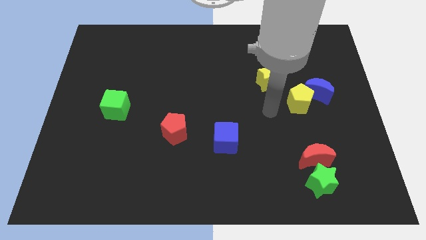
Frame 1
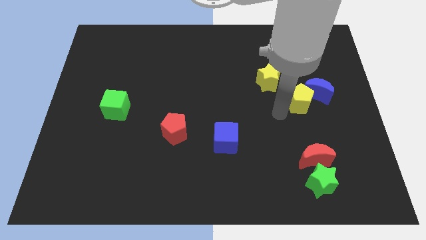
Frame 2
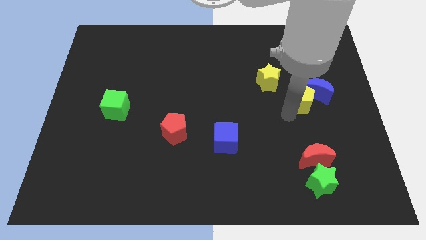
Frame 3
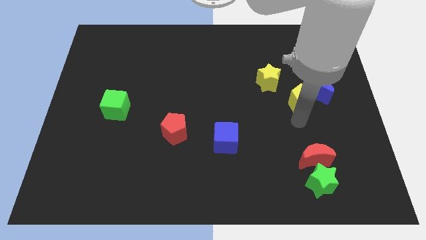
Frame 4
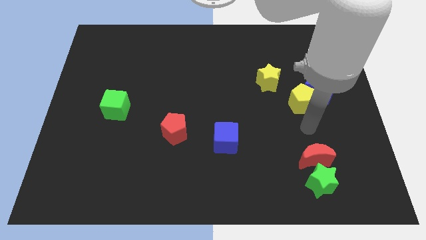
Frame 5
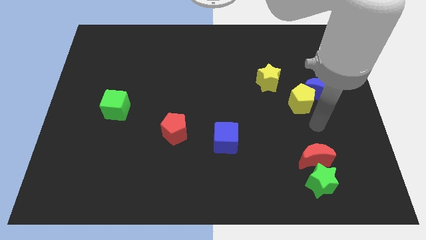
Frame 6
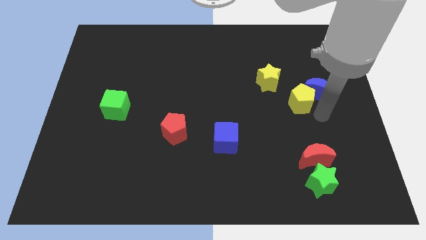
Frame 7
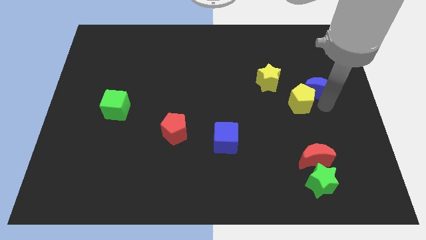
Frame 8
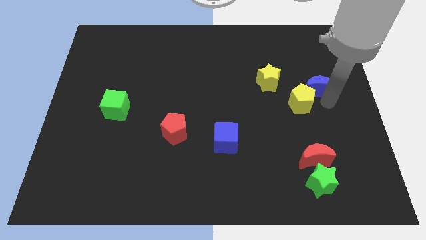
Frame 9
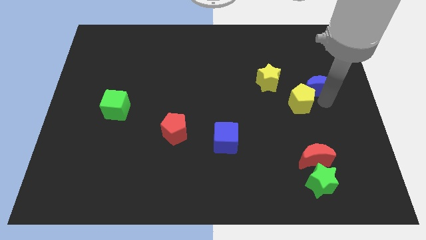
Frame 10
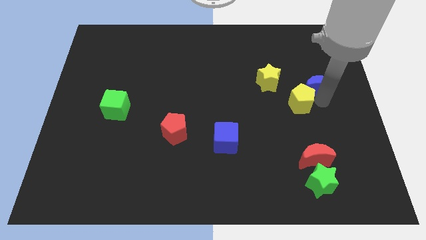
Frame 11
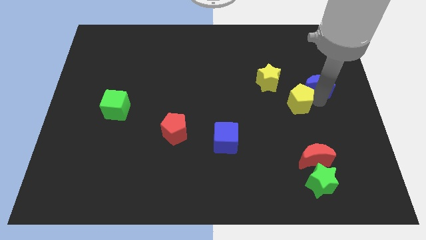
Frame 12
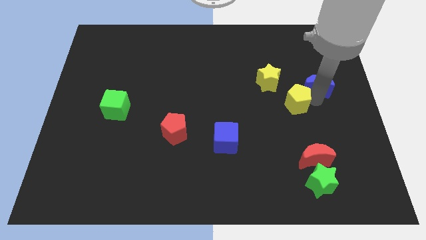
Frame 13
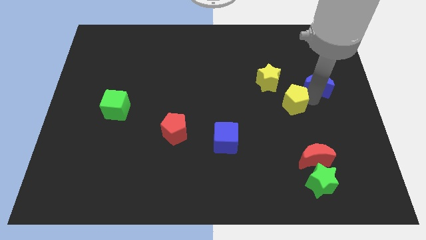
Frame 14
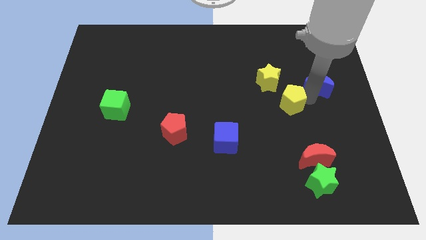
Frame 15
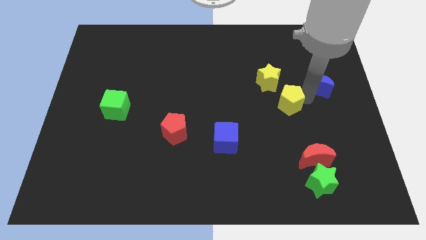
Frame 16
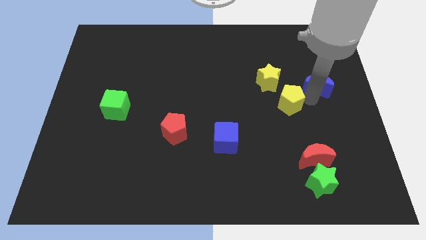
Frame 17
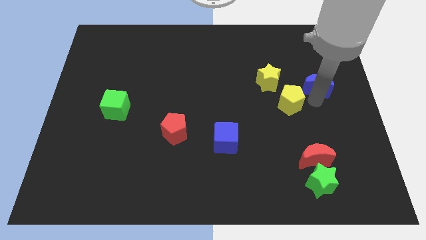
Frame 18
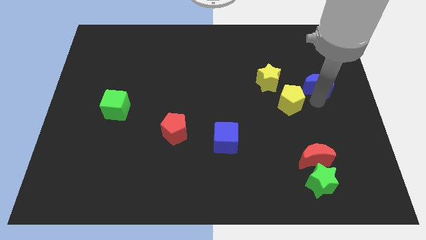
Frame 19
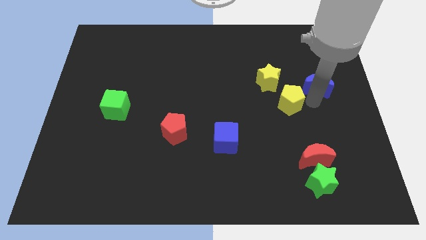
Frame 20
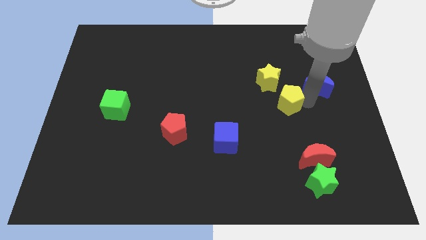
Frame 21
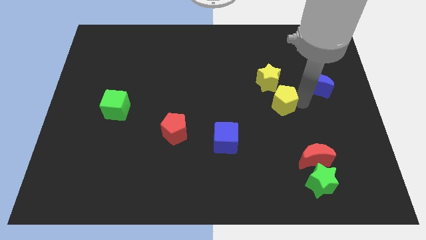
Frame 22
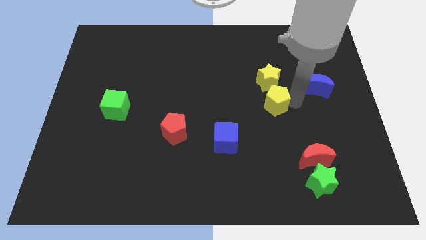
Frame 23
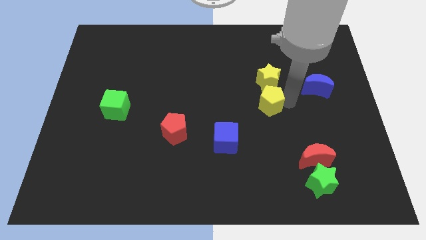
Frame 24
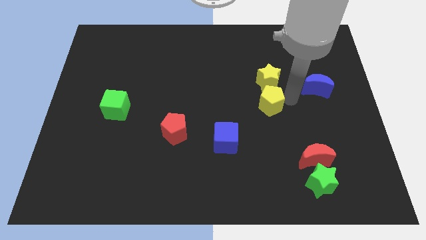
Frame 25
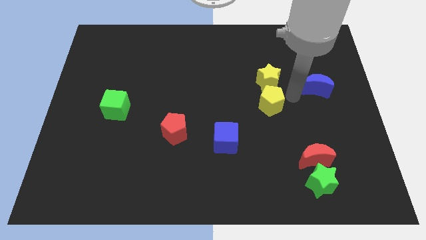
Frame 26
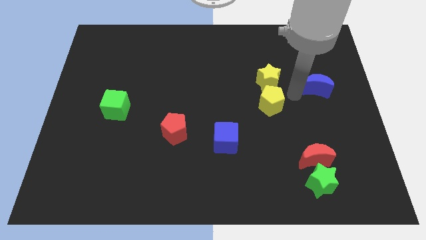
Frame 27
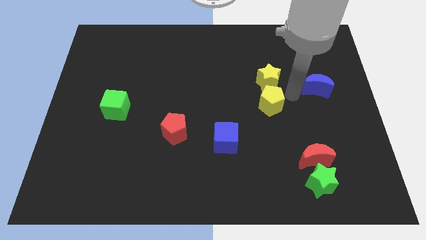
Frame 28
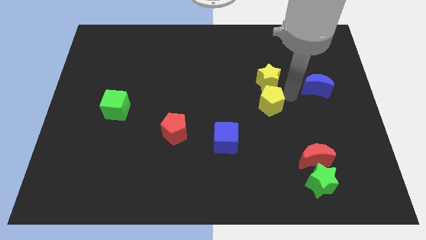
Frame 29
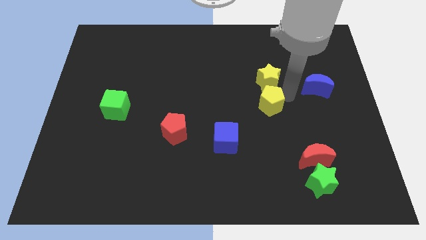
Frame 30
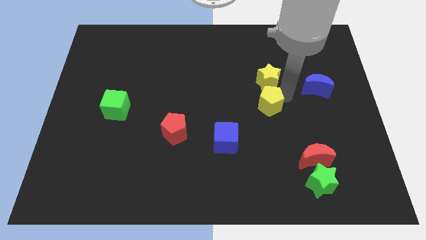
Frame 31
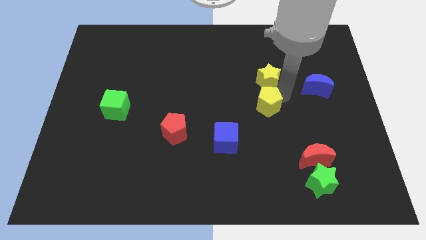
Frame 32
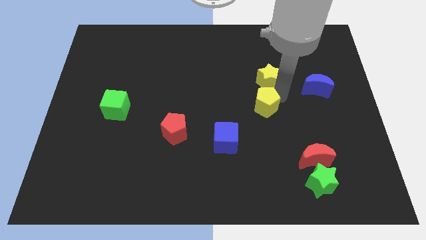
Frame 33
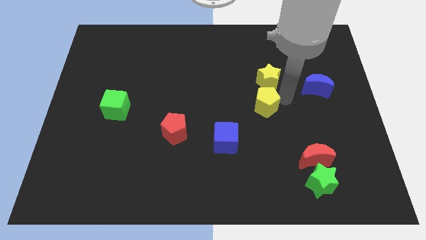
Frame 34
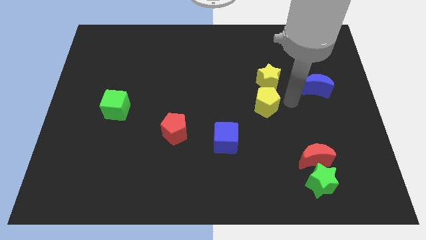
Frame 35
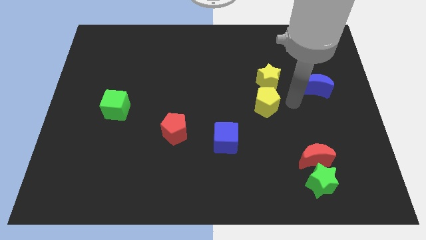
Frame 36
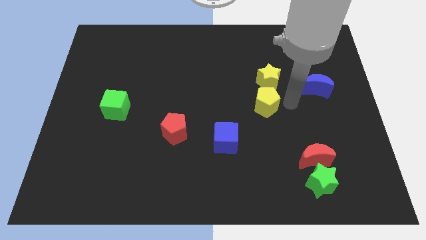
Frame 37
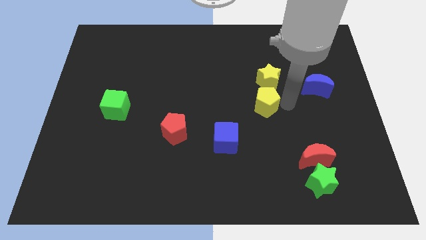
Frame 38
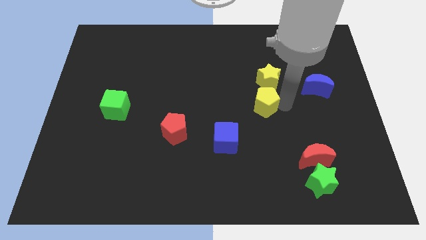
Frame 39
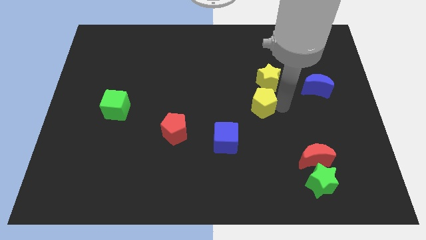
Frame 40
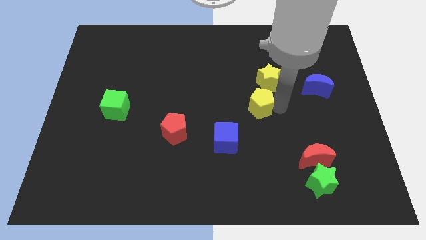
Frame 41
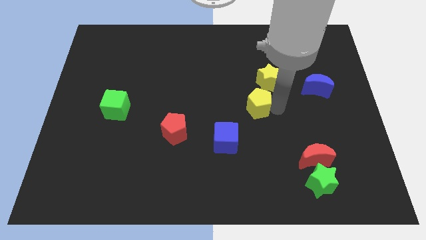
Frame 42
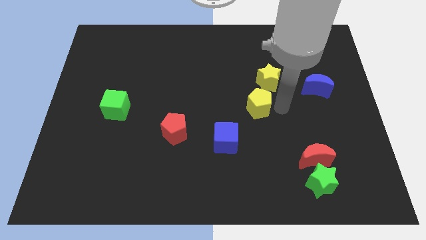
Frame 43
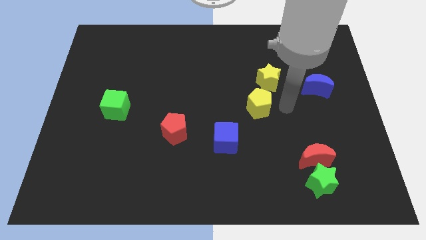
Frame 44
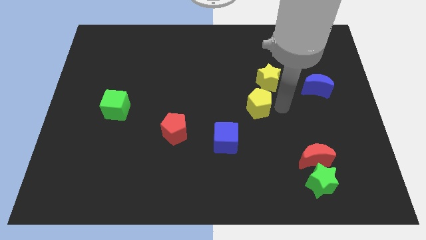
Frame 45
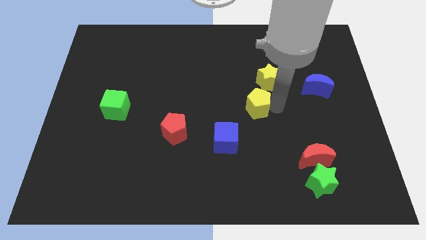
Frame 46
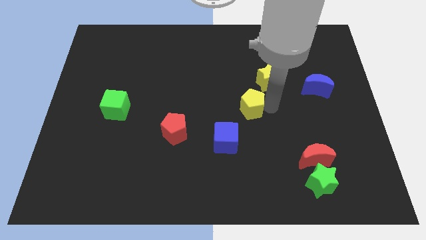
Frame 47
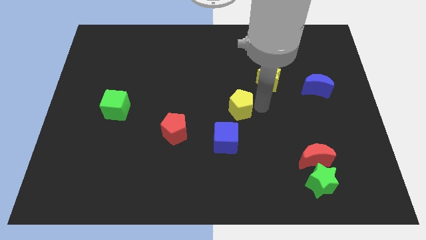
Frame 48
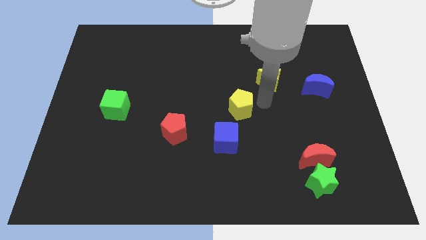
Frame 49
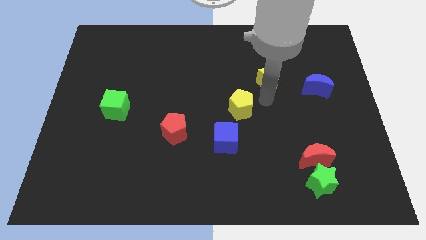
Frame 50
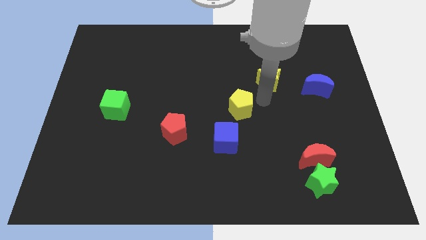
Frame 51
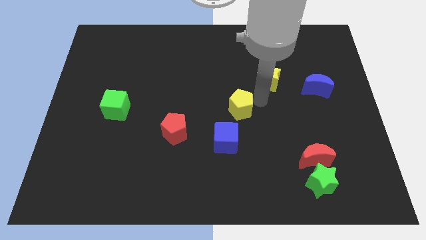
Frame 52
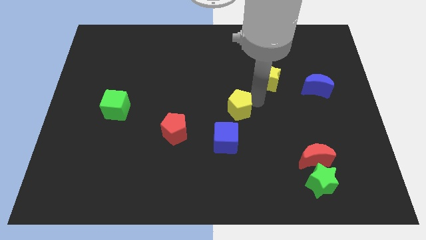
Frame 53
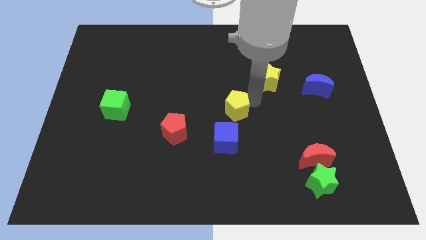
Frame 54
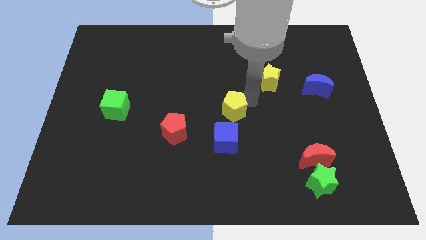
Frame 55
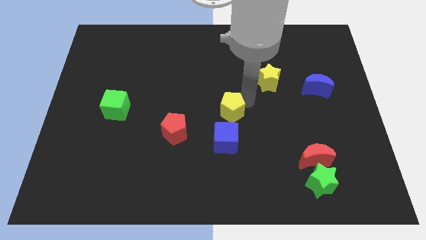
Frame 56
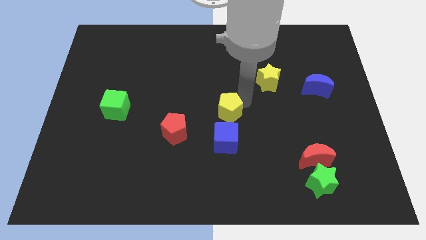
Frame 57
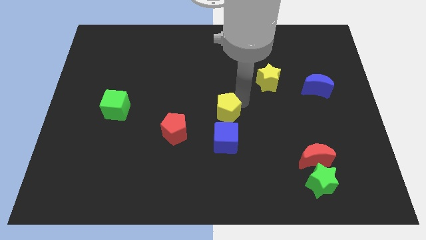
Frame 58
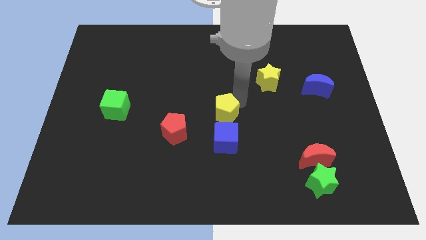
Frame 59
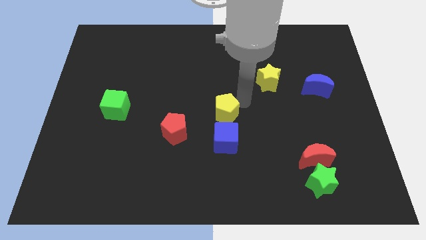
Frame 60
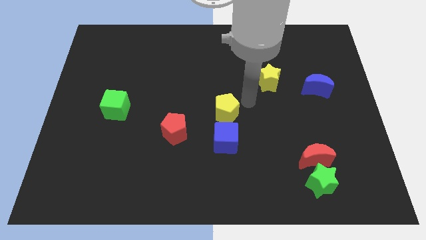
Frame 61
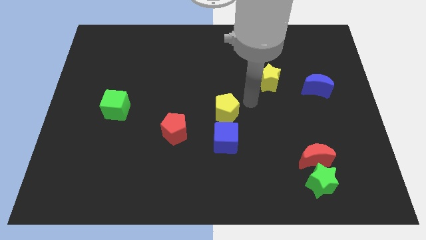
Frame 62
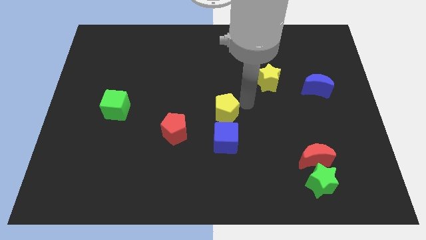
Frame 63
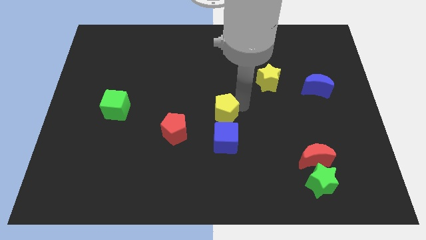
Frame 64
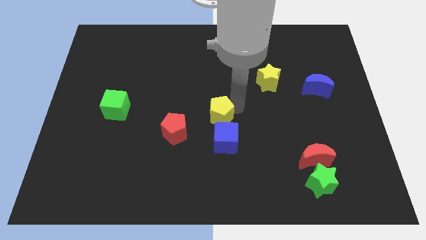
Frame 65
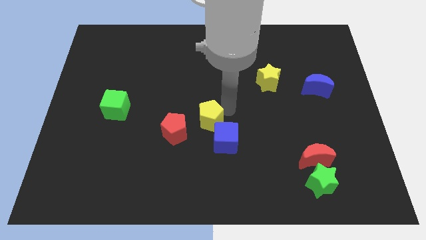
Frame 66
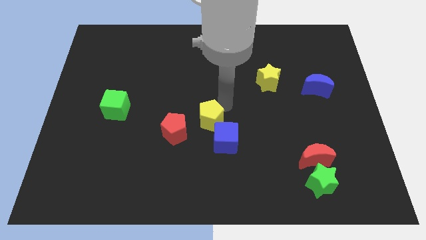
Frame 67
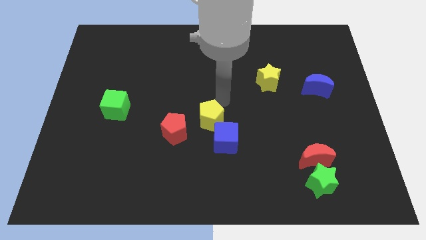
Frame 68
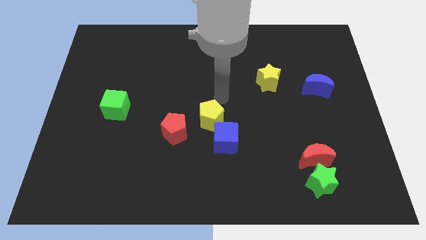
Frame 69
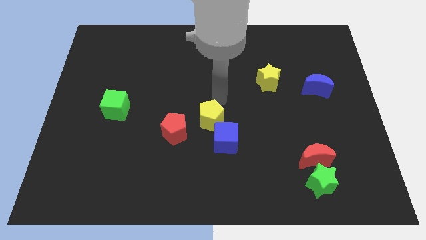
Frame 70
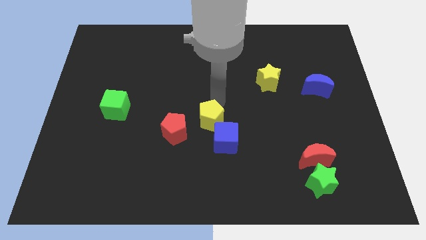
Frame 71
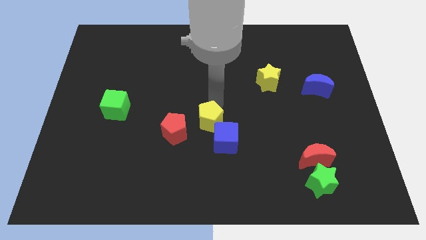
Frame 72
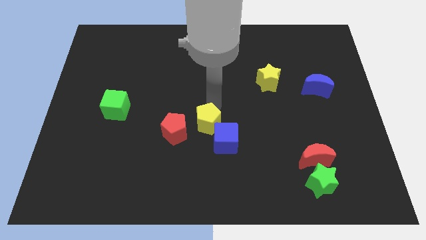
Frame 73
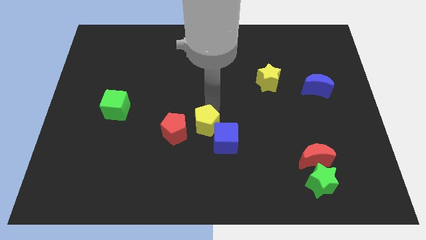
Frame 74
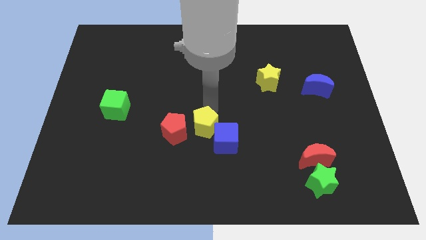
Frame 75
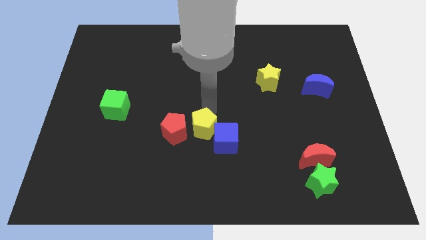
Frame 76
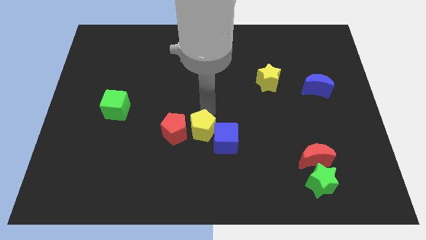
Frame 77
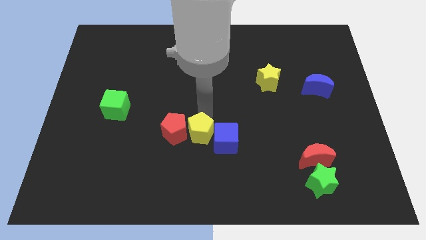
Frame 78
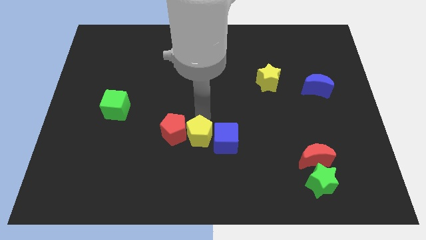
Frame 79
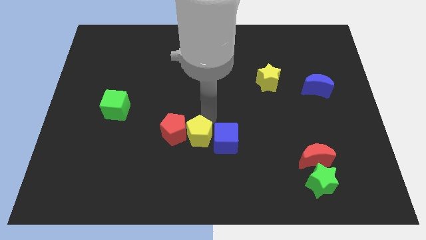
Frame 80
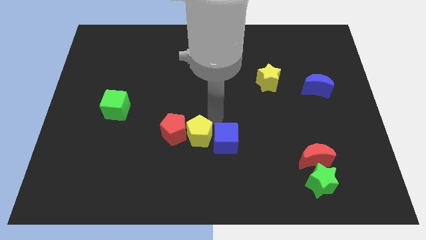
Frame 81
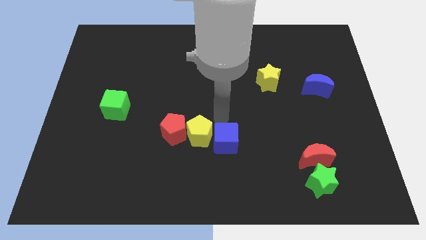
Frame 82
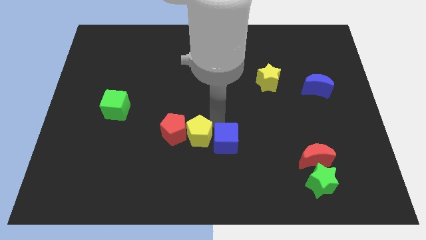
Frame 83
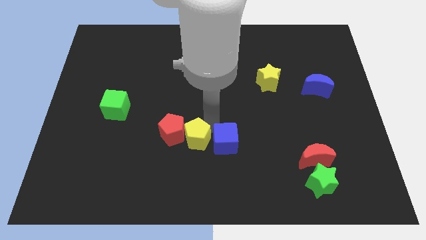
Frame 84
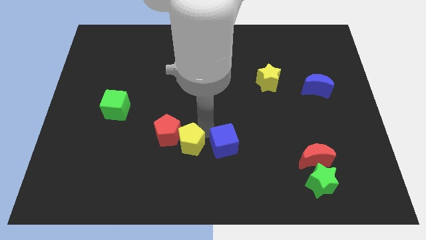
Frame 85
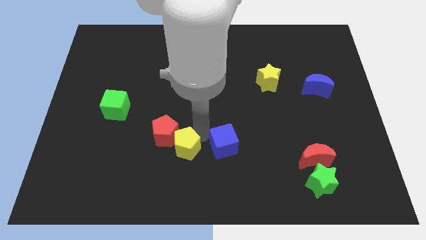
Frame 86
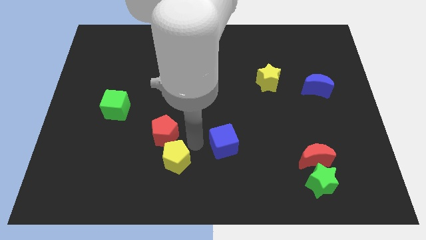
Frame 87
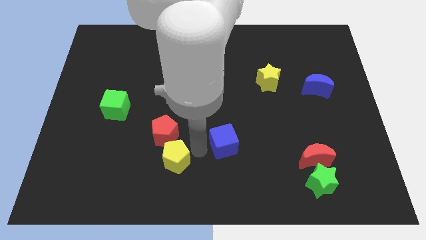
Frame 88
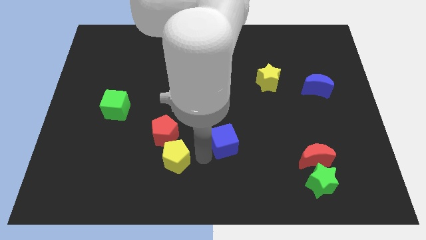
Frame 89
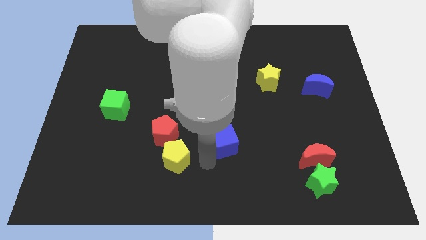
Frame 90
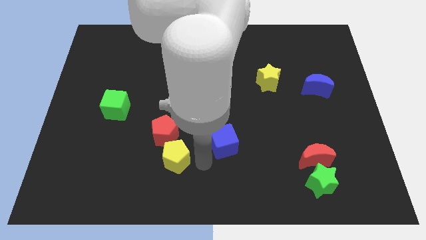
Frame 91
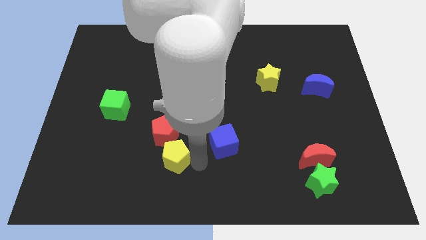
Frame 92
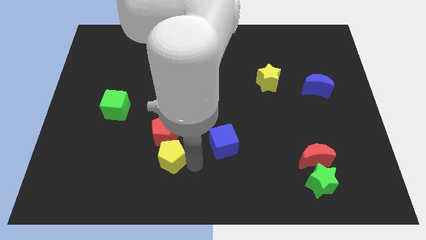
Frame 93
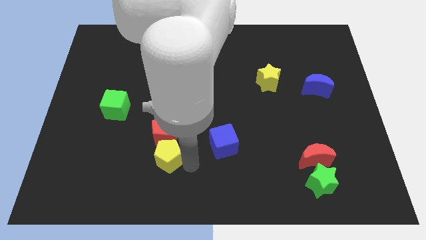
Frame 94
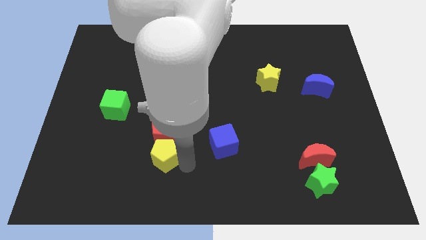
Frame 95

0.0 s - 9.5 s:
put the yellow pentagon to the bottom left of the red pentagon
